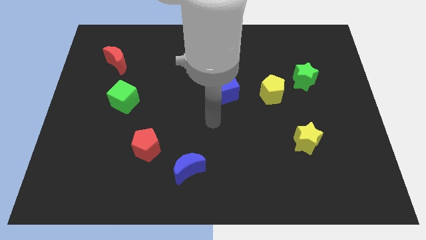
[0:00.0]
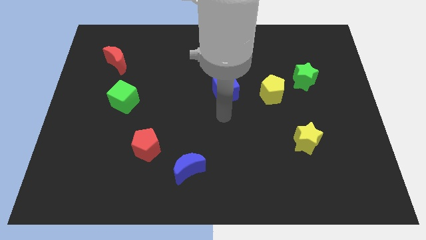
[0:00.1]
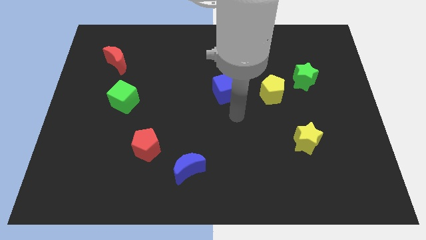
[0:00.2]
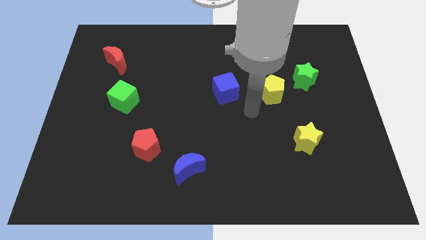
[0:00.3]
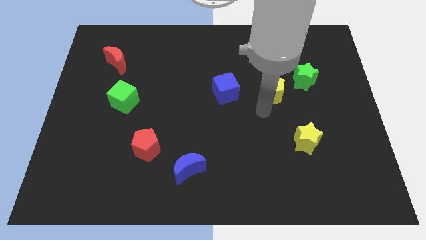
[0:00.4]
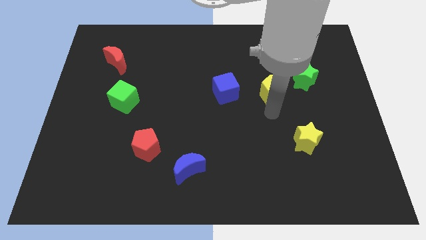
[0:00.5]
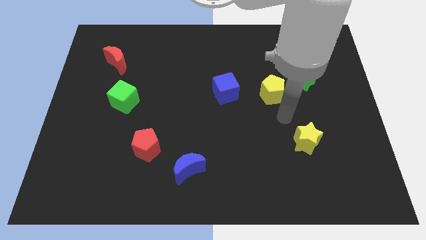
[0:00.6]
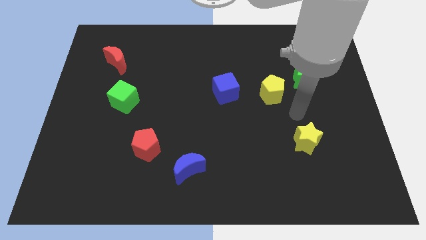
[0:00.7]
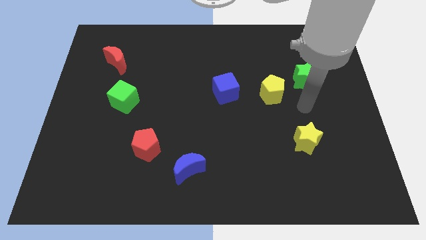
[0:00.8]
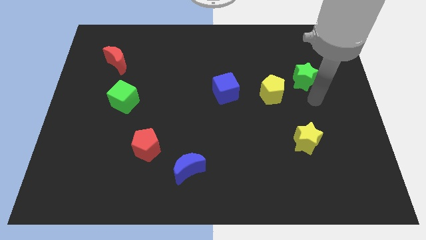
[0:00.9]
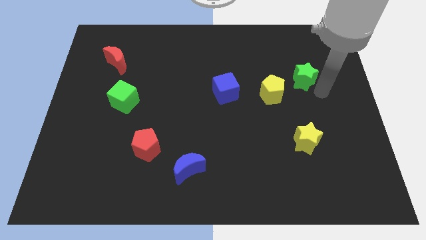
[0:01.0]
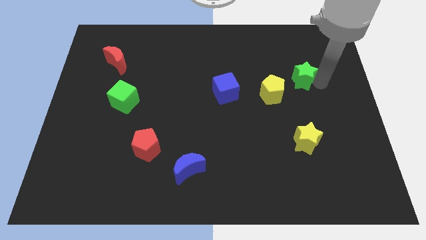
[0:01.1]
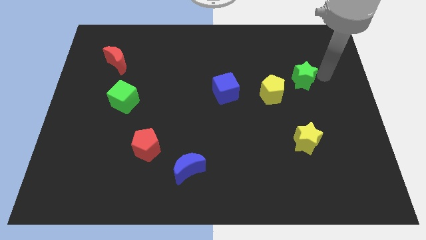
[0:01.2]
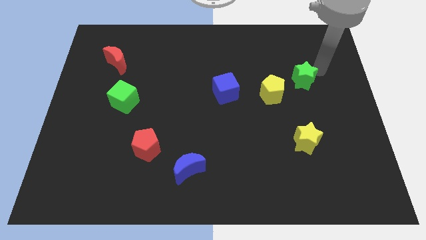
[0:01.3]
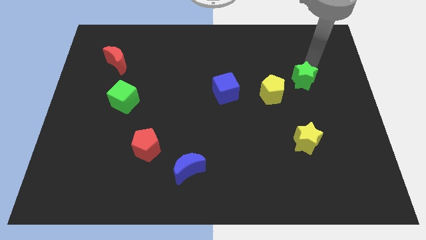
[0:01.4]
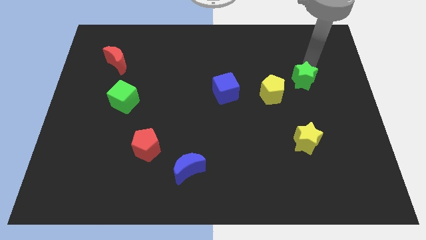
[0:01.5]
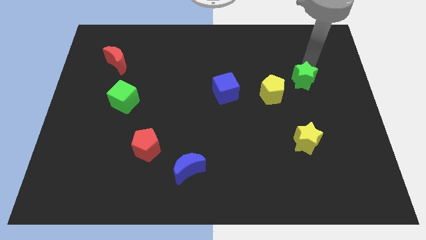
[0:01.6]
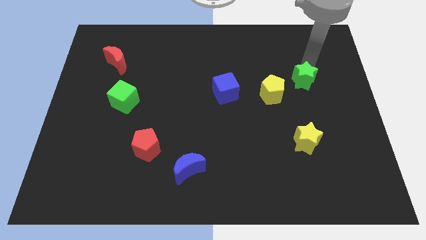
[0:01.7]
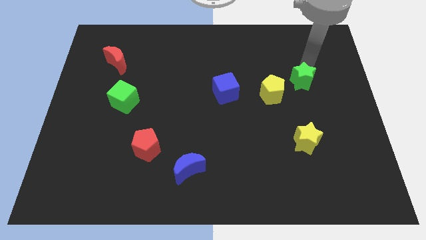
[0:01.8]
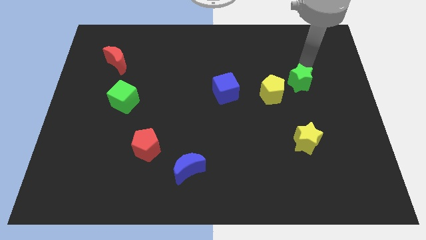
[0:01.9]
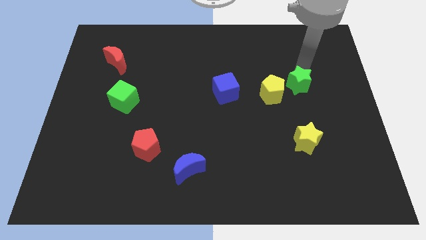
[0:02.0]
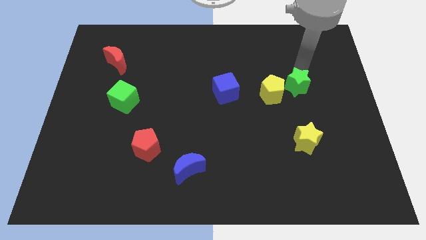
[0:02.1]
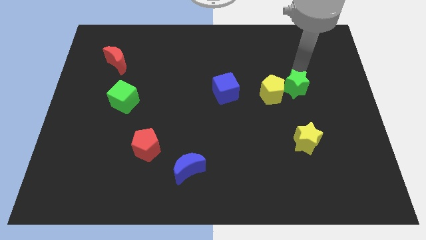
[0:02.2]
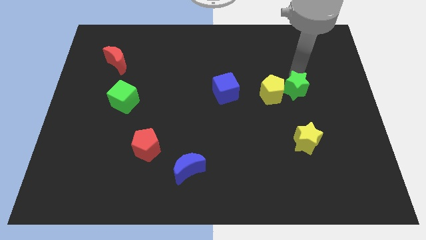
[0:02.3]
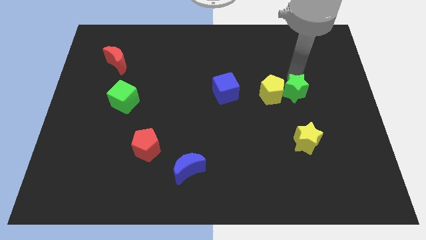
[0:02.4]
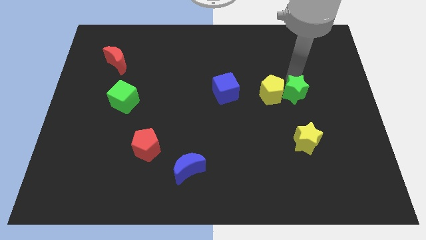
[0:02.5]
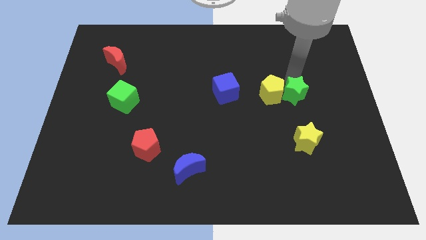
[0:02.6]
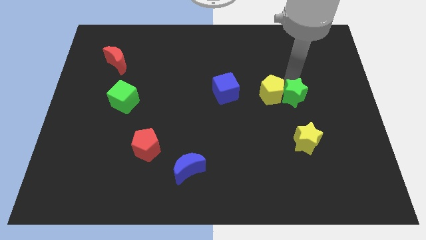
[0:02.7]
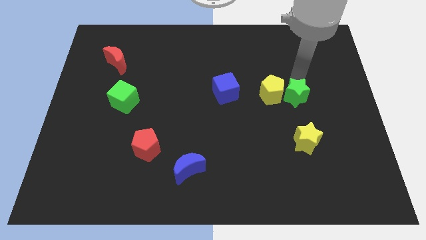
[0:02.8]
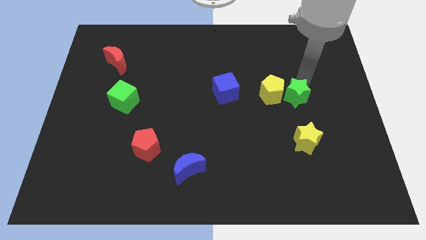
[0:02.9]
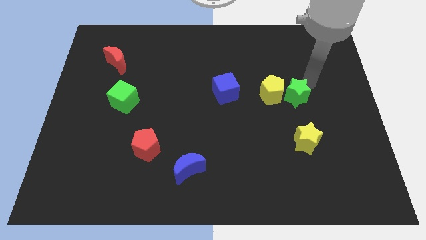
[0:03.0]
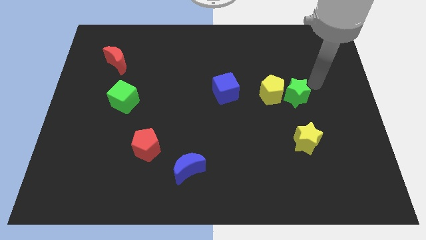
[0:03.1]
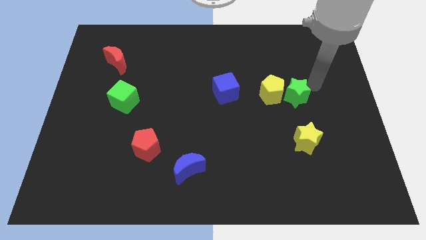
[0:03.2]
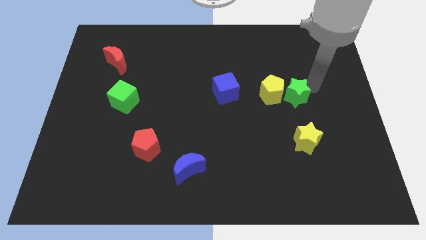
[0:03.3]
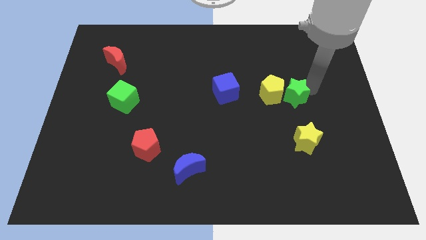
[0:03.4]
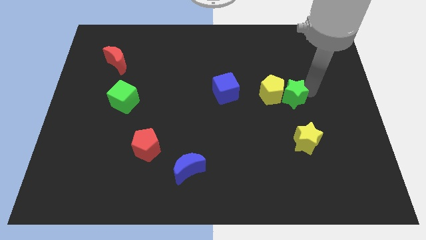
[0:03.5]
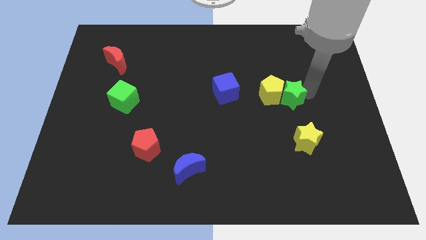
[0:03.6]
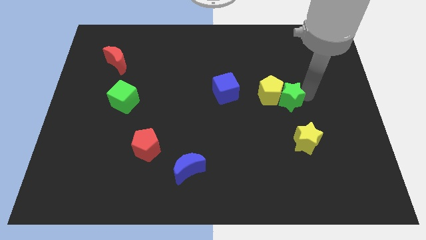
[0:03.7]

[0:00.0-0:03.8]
push the green star somewhat downwards and then to the left

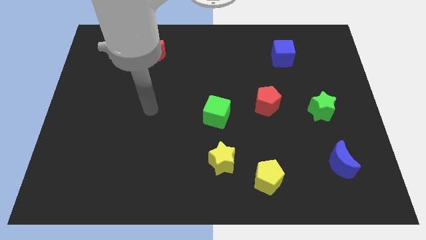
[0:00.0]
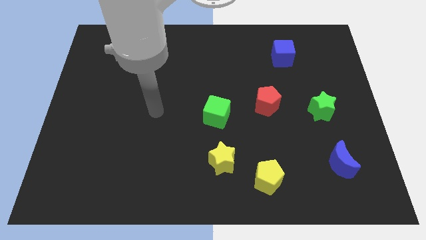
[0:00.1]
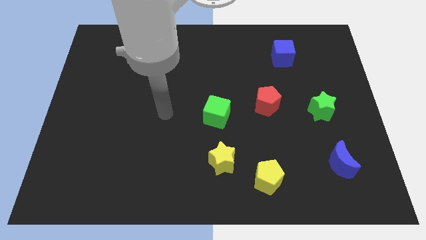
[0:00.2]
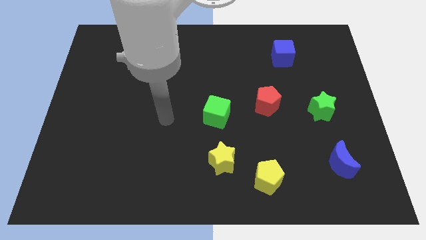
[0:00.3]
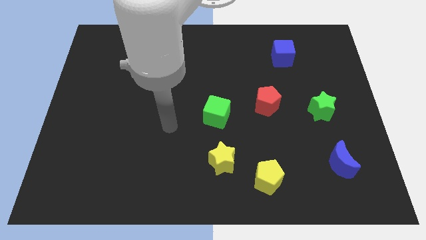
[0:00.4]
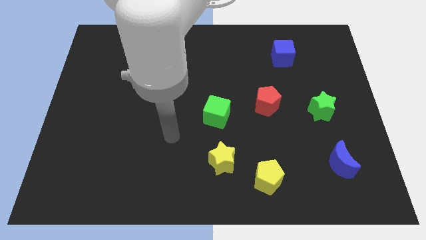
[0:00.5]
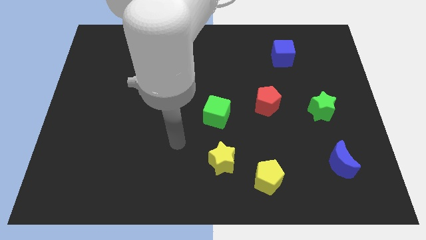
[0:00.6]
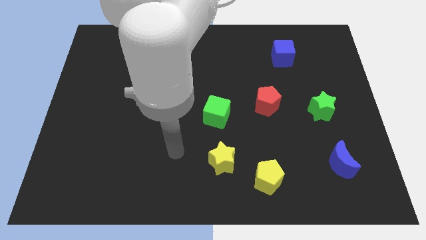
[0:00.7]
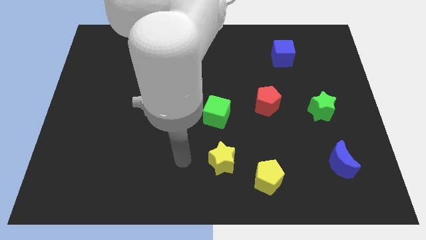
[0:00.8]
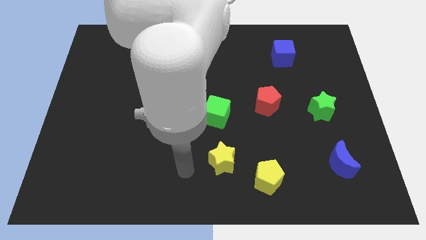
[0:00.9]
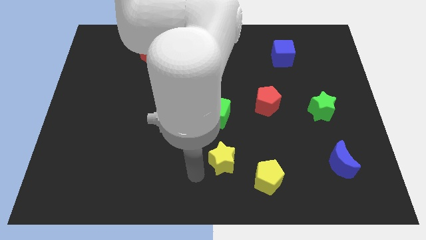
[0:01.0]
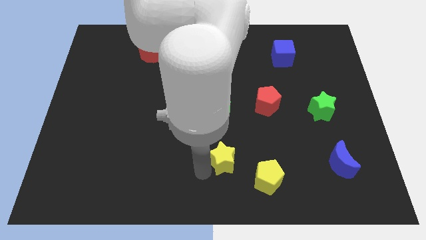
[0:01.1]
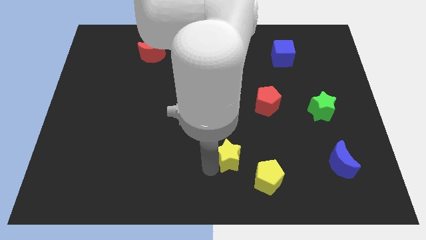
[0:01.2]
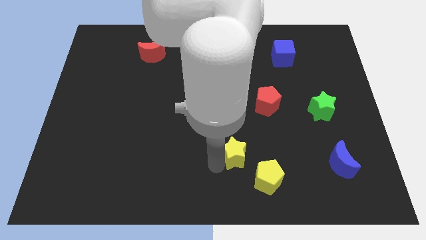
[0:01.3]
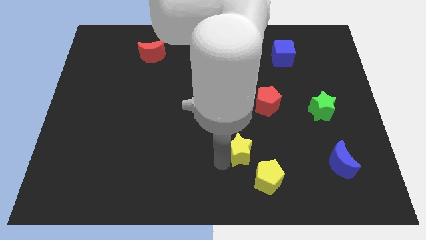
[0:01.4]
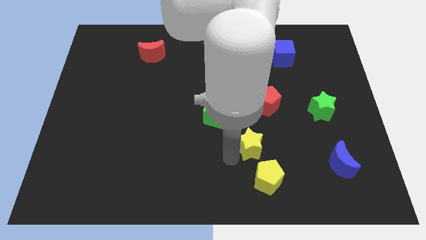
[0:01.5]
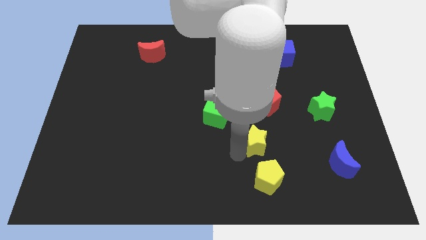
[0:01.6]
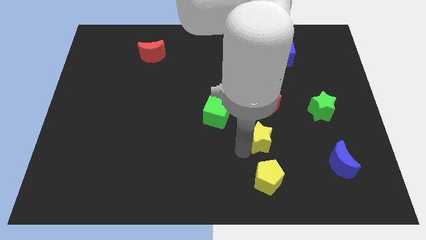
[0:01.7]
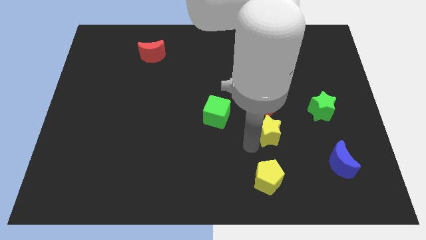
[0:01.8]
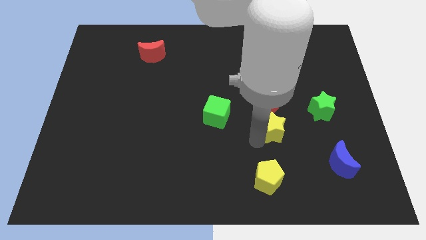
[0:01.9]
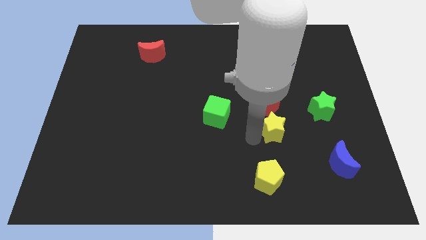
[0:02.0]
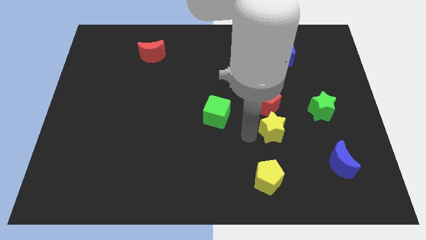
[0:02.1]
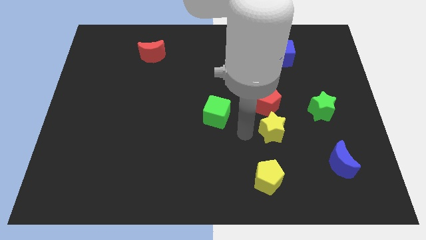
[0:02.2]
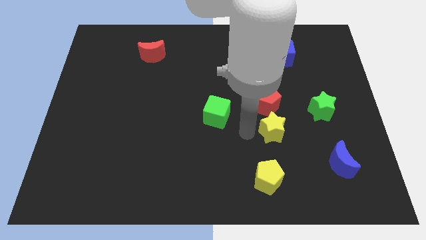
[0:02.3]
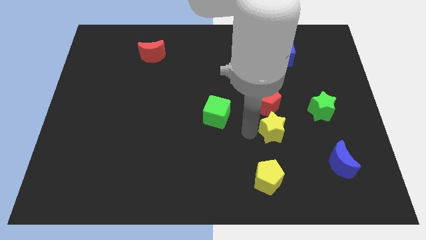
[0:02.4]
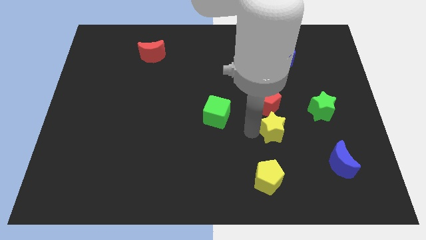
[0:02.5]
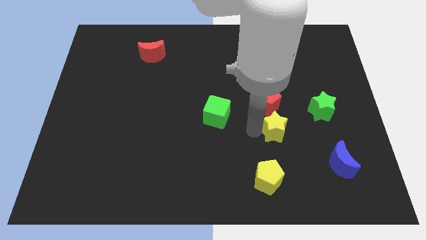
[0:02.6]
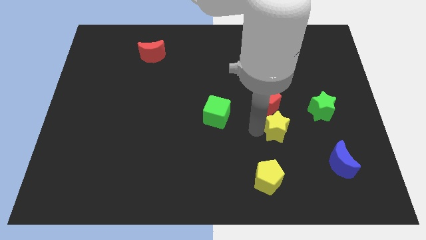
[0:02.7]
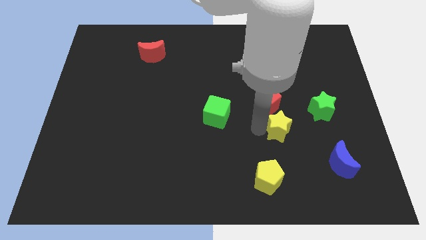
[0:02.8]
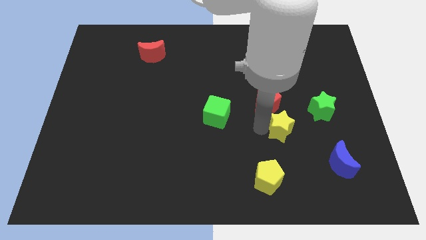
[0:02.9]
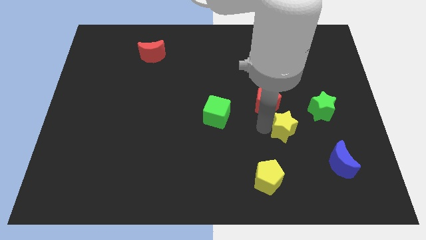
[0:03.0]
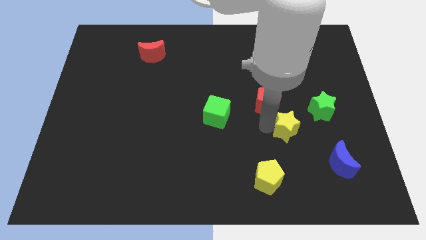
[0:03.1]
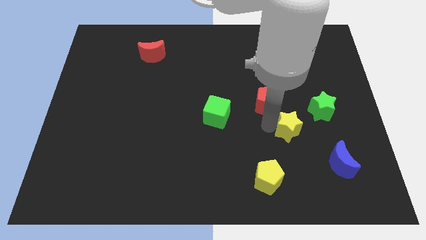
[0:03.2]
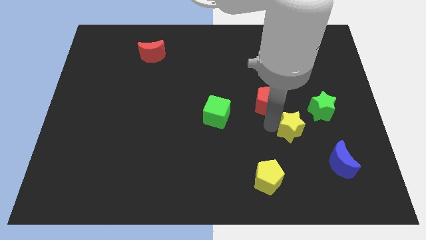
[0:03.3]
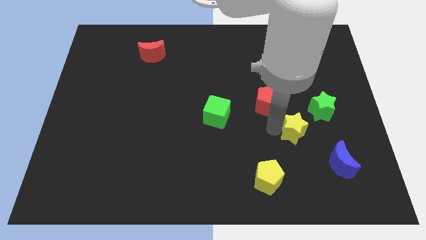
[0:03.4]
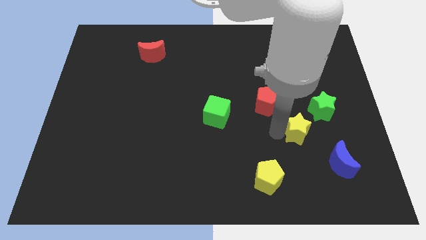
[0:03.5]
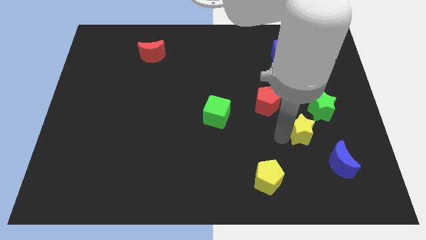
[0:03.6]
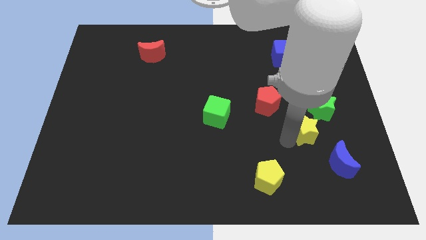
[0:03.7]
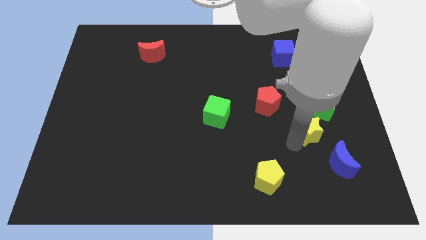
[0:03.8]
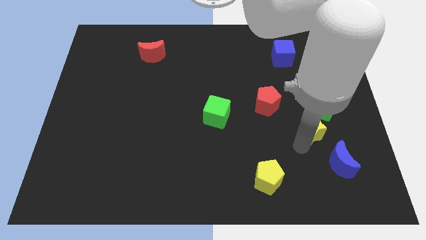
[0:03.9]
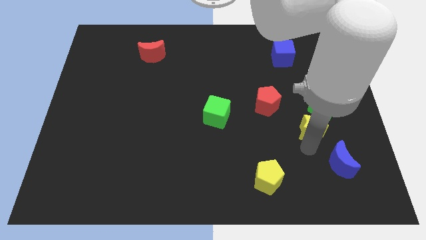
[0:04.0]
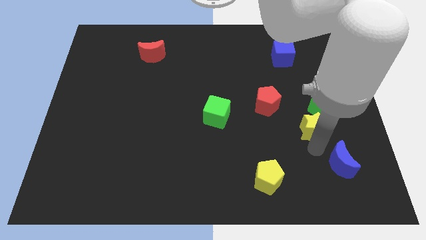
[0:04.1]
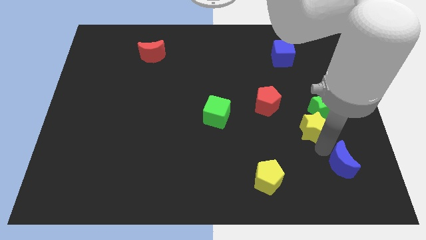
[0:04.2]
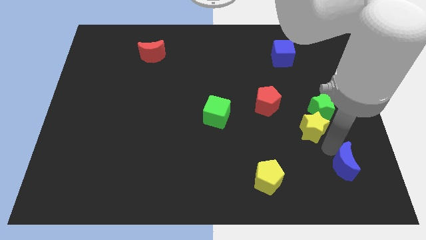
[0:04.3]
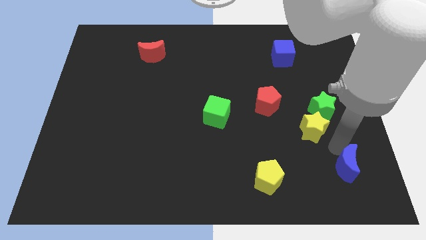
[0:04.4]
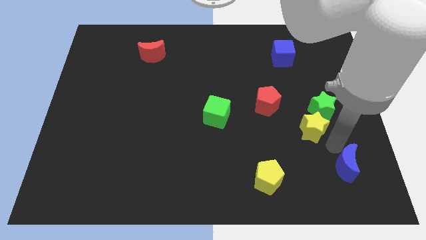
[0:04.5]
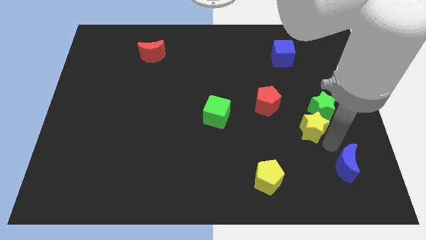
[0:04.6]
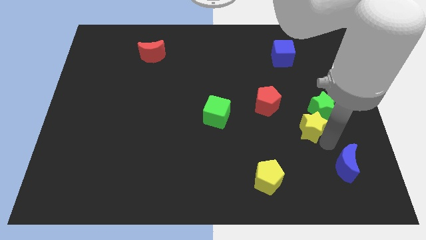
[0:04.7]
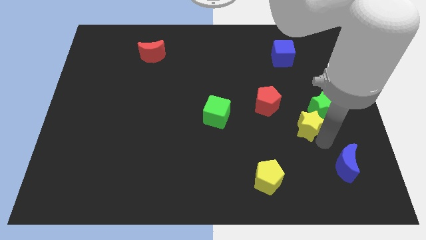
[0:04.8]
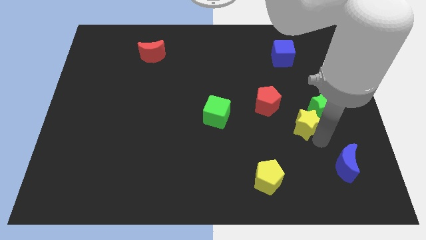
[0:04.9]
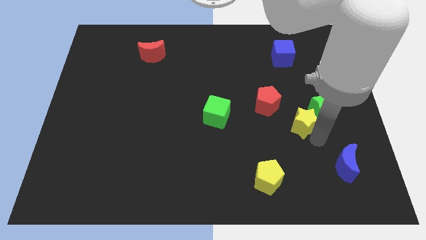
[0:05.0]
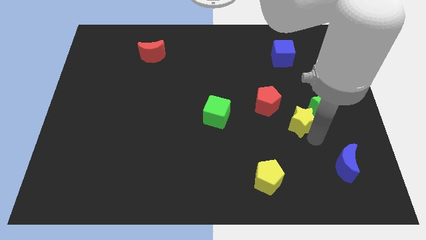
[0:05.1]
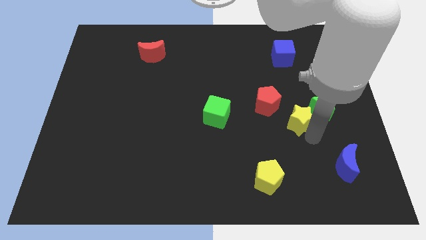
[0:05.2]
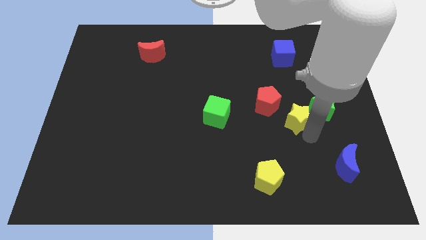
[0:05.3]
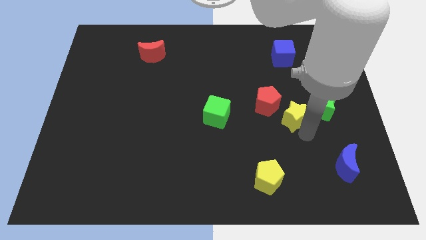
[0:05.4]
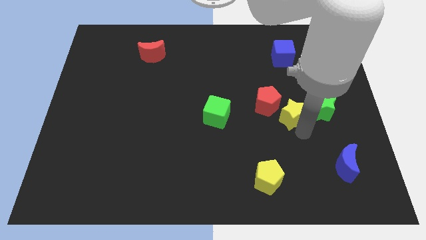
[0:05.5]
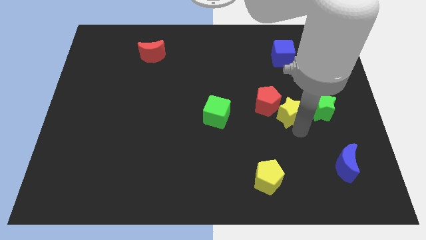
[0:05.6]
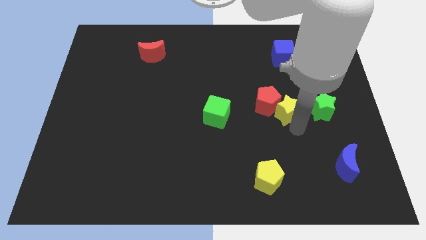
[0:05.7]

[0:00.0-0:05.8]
slide the yellow star up and right diagonally
